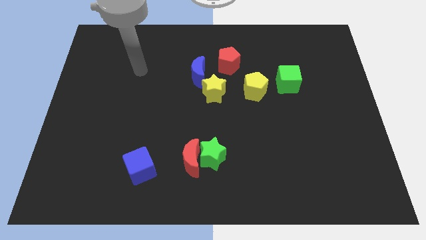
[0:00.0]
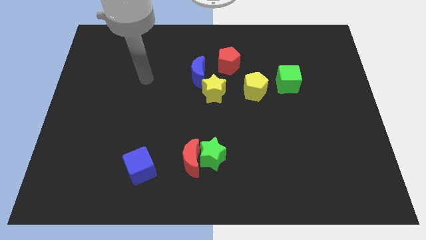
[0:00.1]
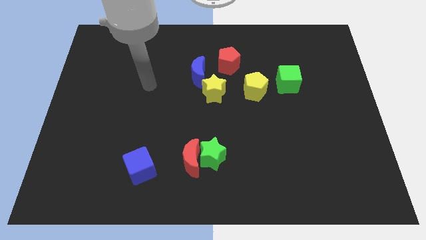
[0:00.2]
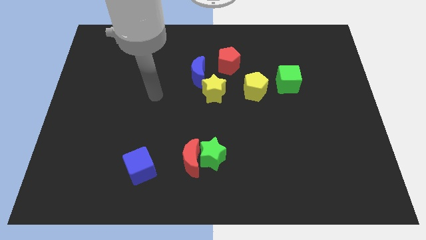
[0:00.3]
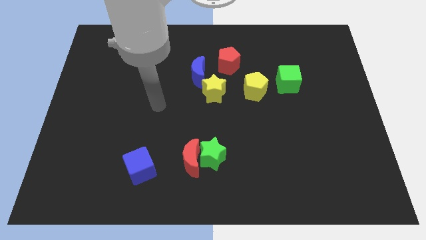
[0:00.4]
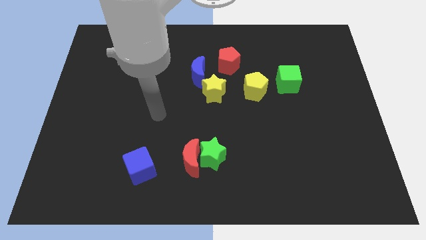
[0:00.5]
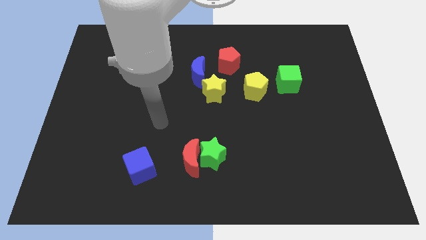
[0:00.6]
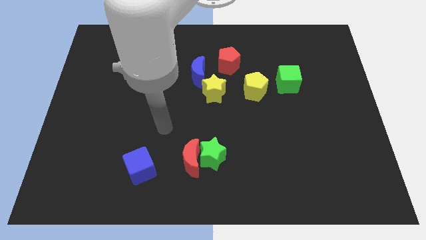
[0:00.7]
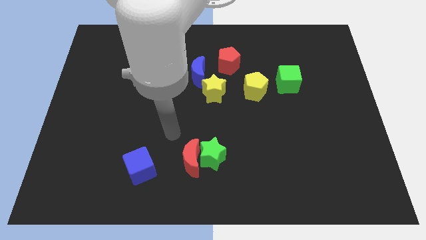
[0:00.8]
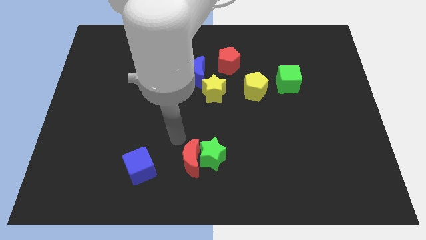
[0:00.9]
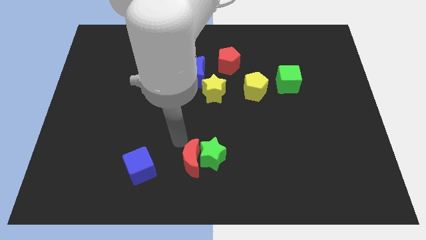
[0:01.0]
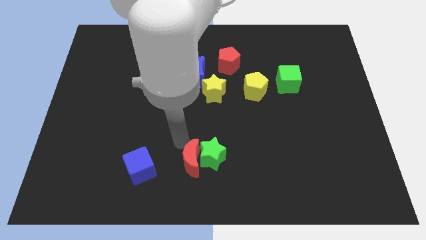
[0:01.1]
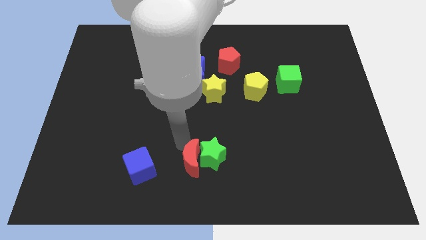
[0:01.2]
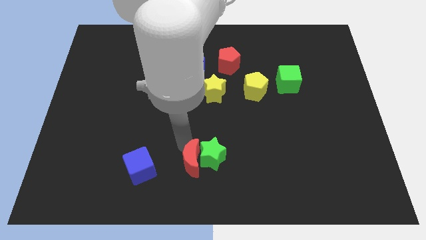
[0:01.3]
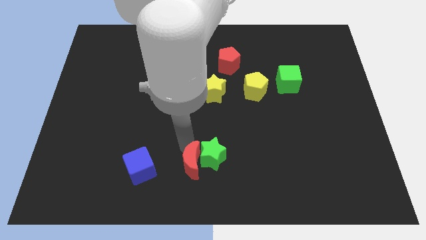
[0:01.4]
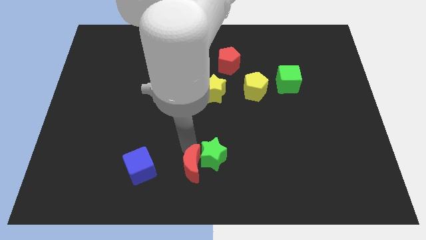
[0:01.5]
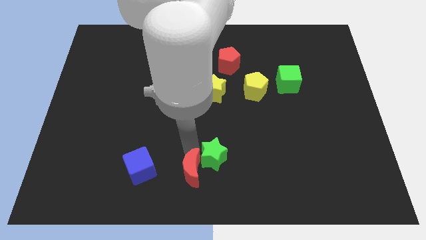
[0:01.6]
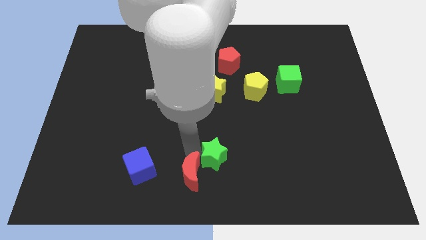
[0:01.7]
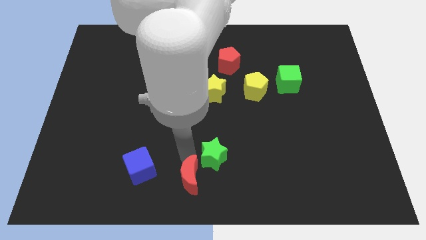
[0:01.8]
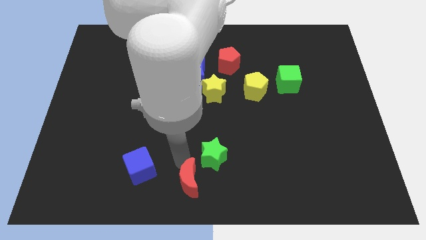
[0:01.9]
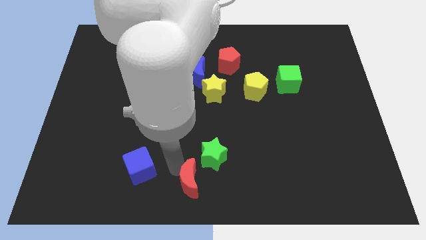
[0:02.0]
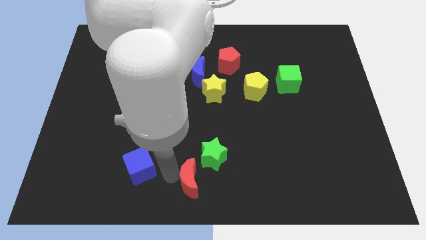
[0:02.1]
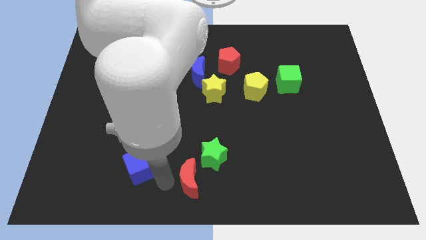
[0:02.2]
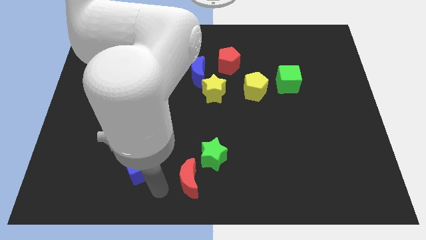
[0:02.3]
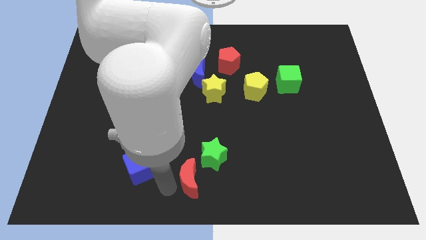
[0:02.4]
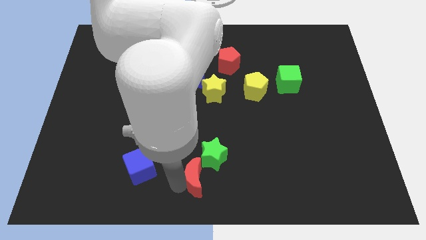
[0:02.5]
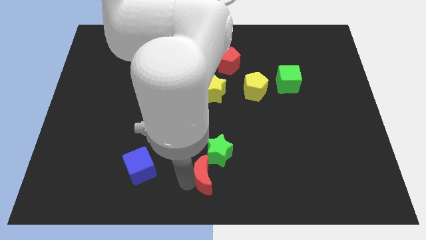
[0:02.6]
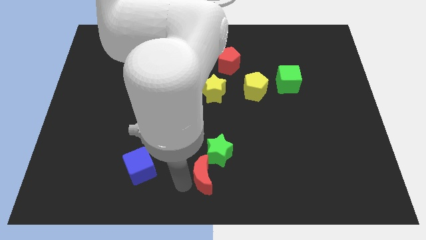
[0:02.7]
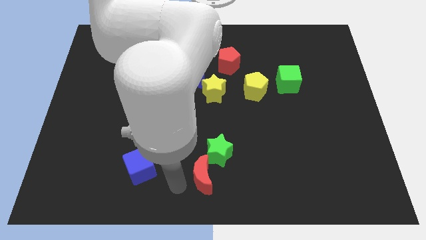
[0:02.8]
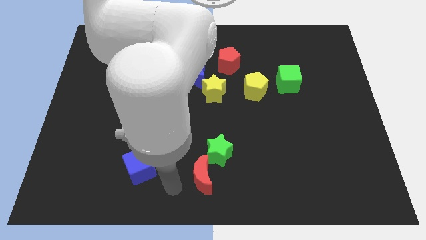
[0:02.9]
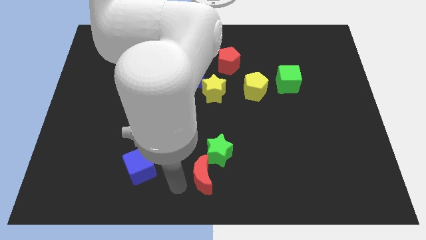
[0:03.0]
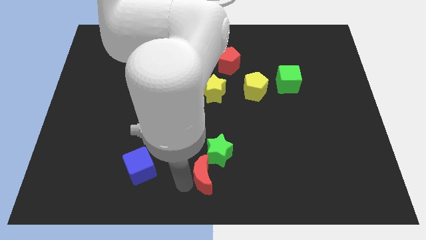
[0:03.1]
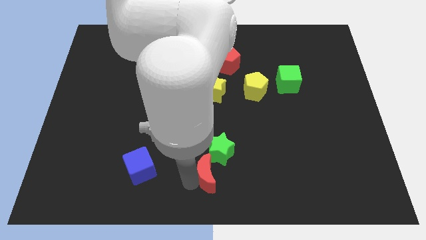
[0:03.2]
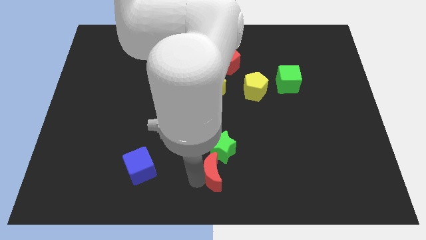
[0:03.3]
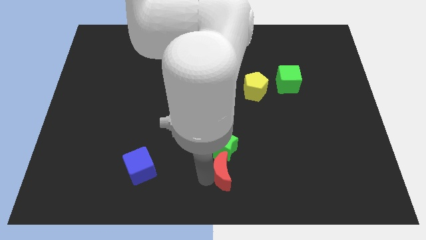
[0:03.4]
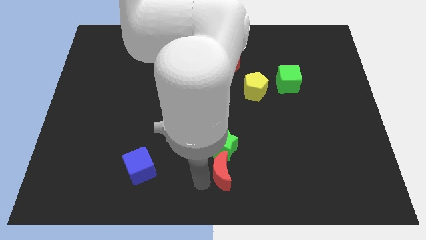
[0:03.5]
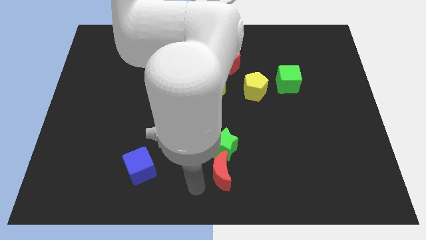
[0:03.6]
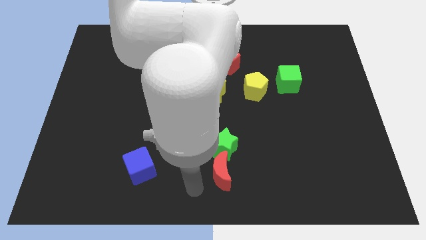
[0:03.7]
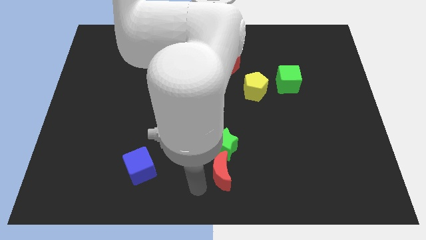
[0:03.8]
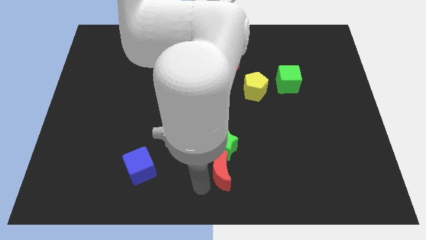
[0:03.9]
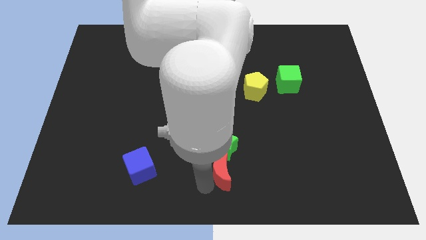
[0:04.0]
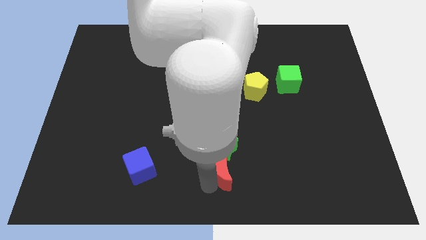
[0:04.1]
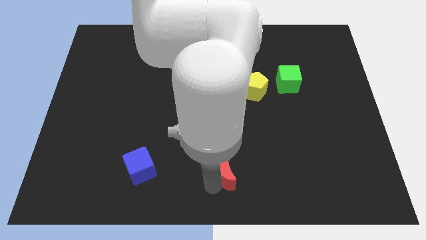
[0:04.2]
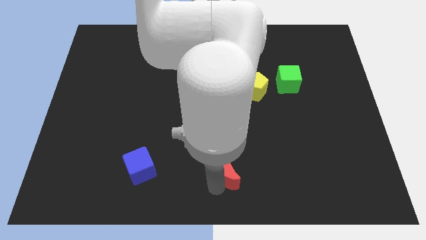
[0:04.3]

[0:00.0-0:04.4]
slide the red moon right a little

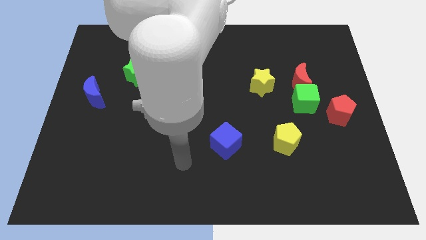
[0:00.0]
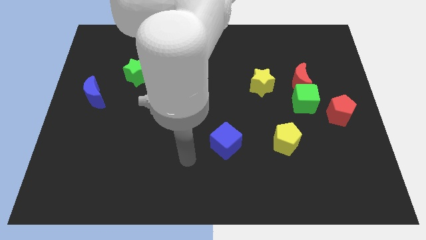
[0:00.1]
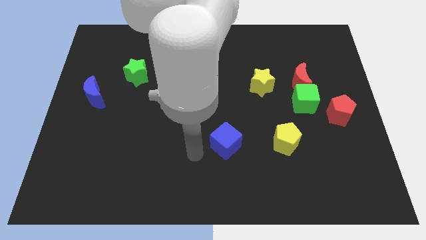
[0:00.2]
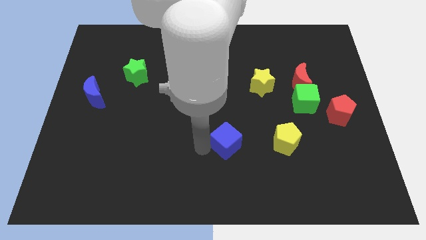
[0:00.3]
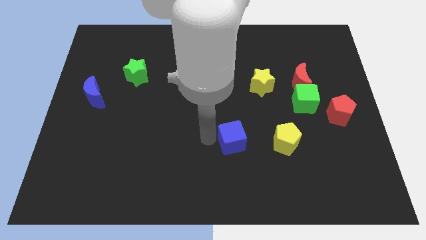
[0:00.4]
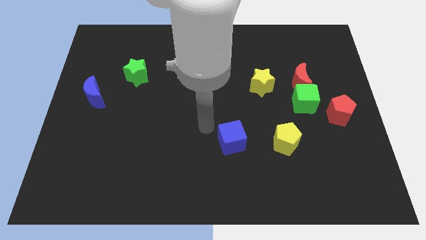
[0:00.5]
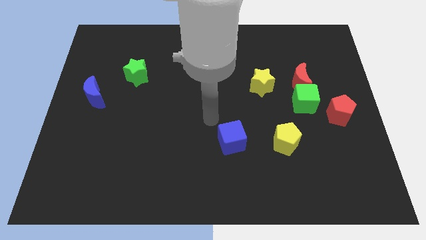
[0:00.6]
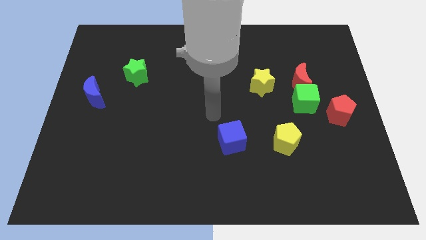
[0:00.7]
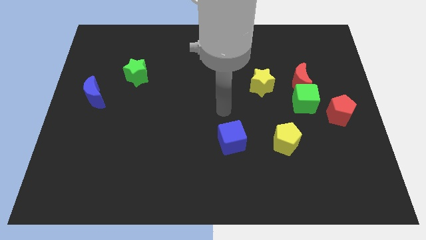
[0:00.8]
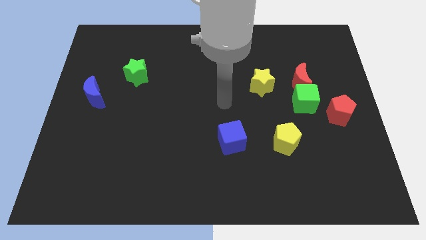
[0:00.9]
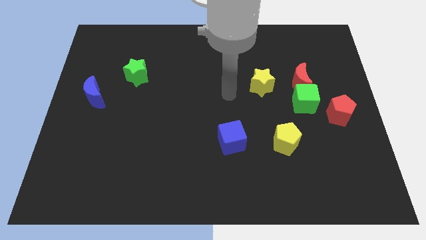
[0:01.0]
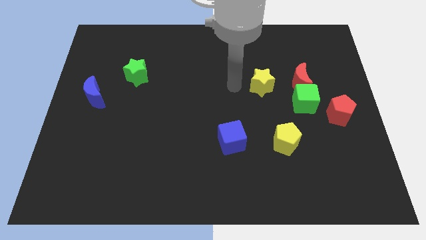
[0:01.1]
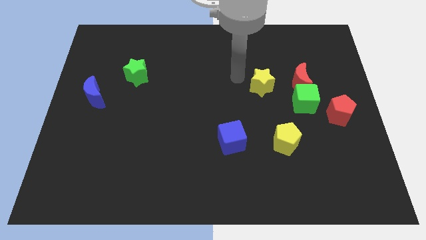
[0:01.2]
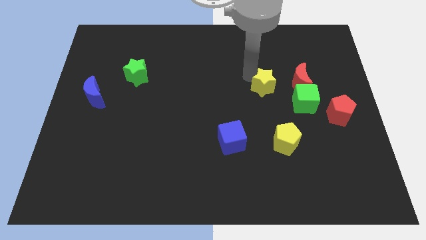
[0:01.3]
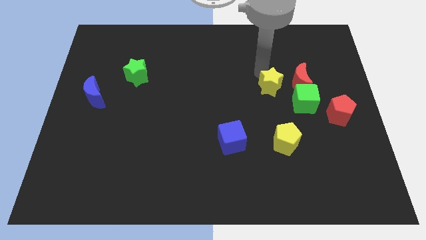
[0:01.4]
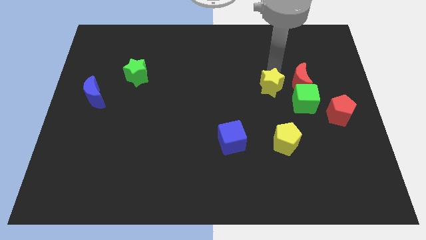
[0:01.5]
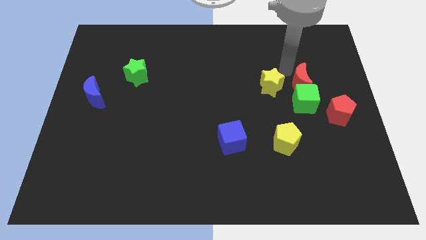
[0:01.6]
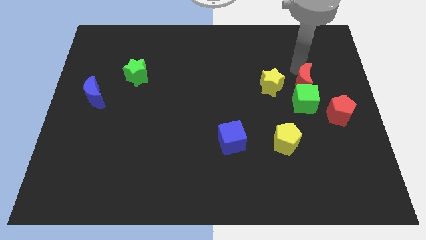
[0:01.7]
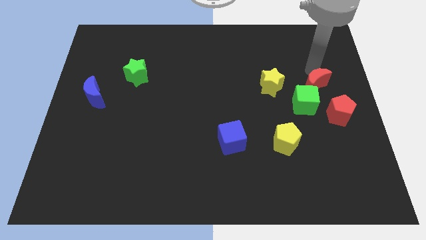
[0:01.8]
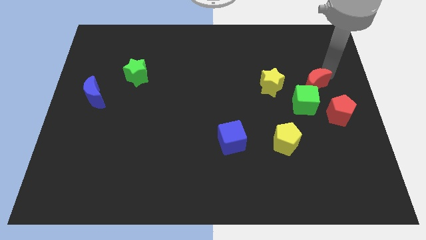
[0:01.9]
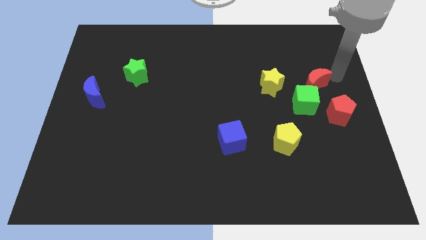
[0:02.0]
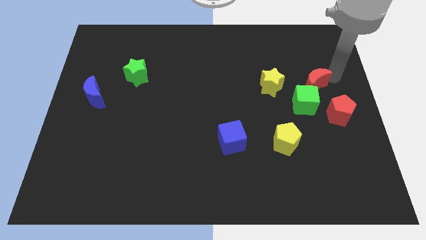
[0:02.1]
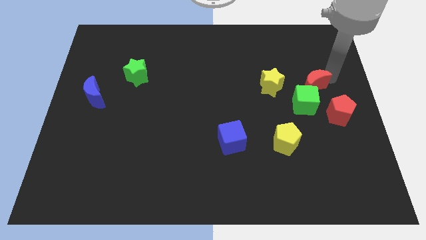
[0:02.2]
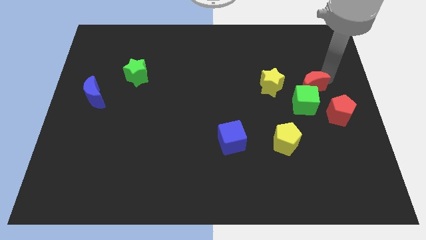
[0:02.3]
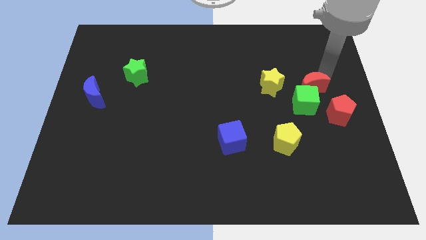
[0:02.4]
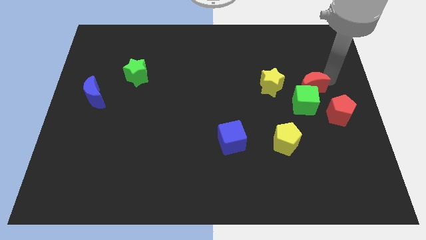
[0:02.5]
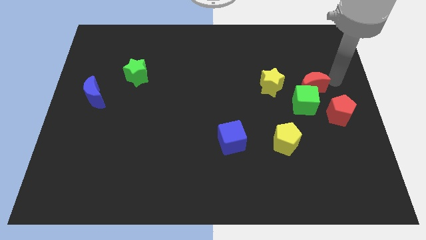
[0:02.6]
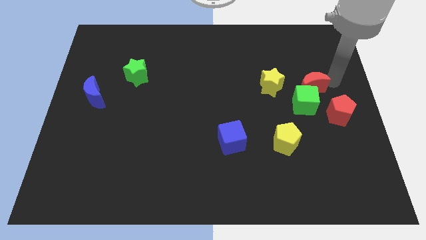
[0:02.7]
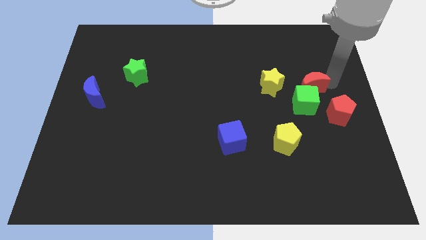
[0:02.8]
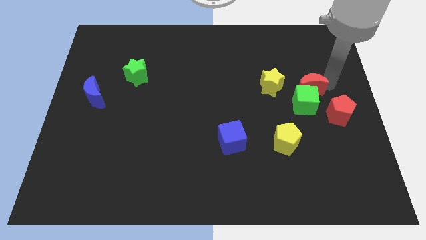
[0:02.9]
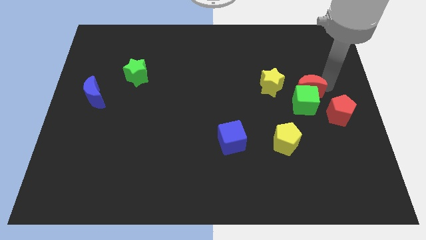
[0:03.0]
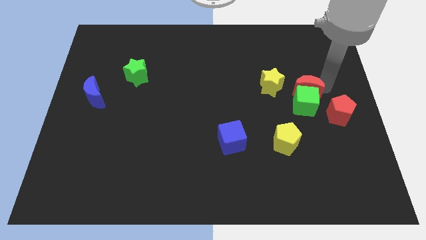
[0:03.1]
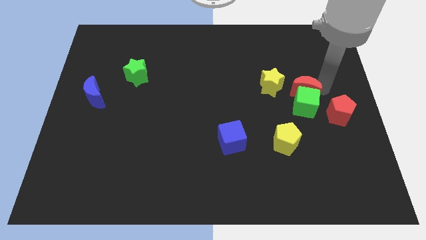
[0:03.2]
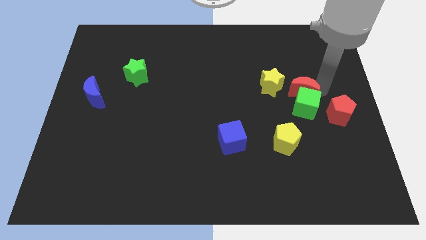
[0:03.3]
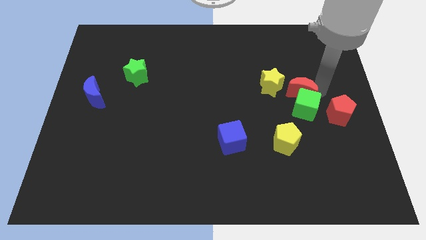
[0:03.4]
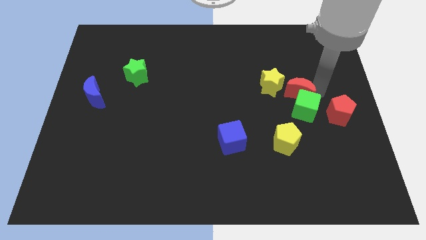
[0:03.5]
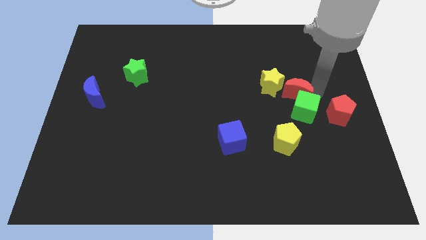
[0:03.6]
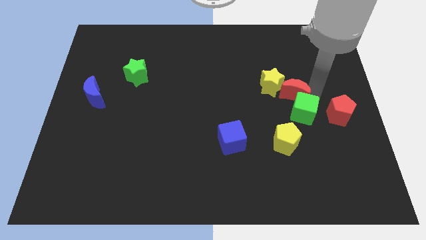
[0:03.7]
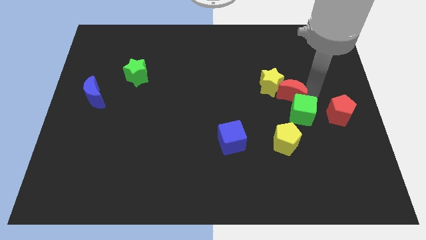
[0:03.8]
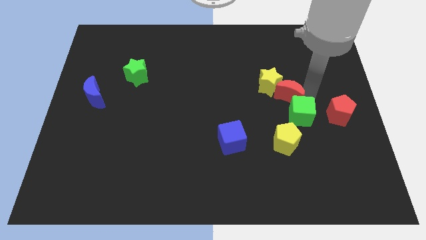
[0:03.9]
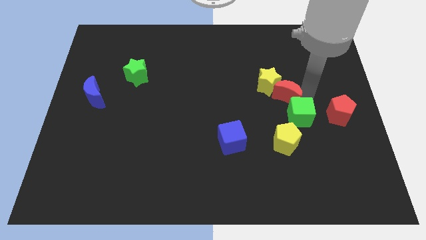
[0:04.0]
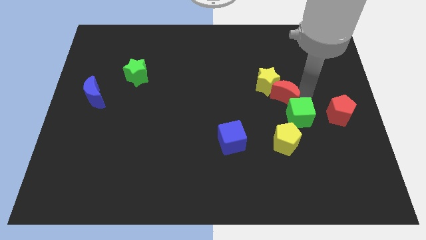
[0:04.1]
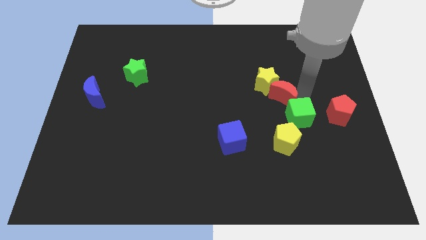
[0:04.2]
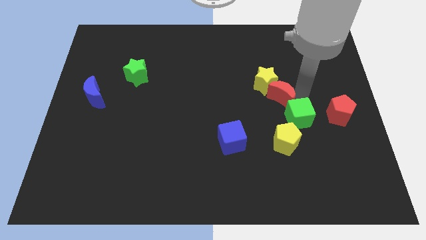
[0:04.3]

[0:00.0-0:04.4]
slightly push the red moon downwards and then to the left
